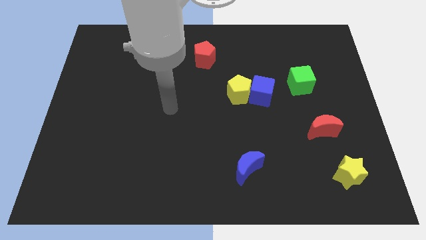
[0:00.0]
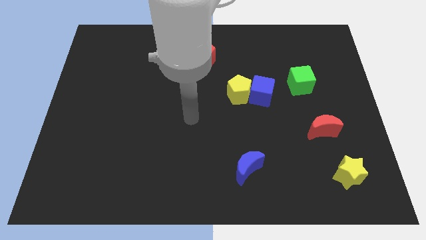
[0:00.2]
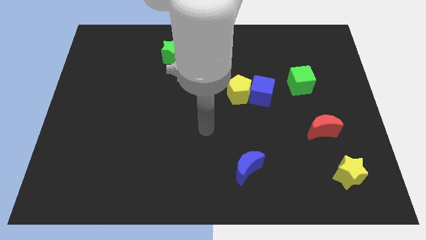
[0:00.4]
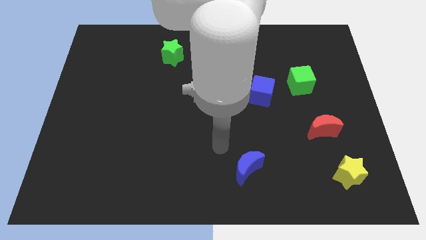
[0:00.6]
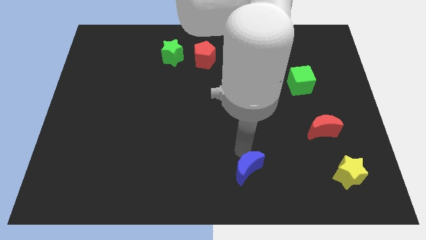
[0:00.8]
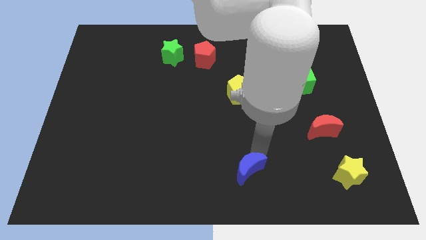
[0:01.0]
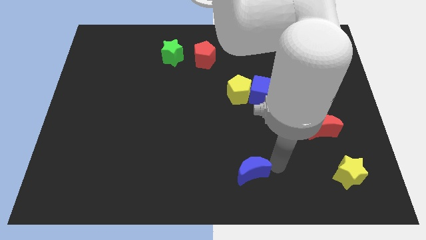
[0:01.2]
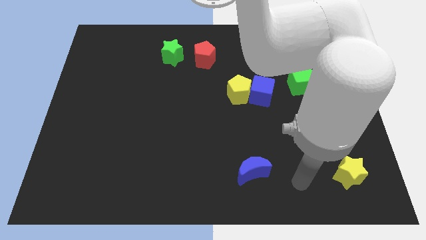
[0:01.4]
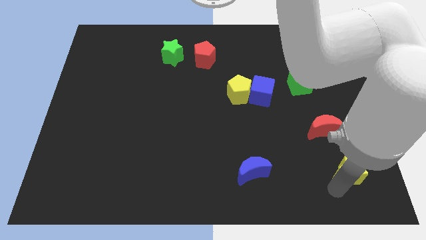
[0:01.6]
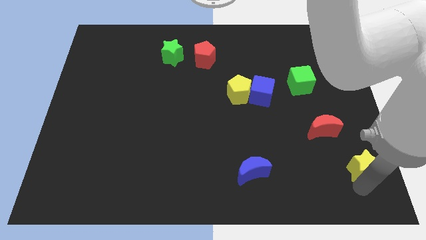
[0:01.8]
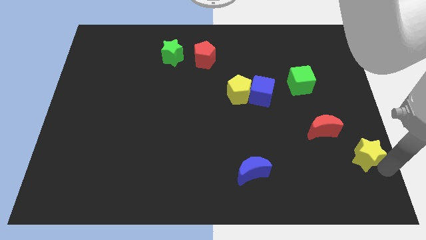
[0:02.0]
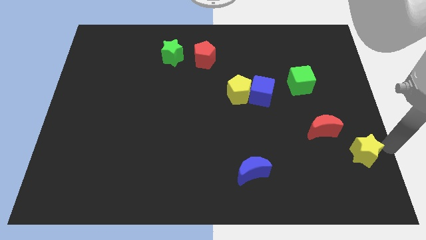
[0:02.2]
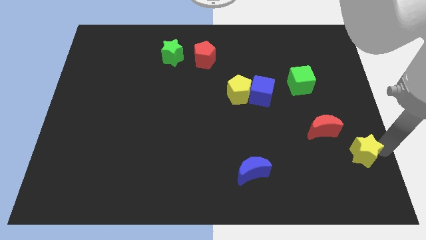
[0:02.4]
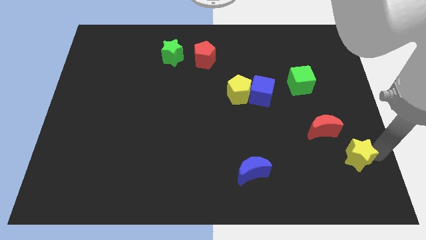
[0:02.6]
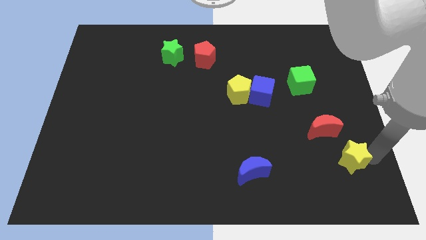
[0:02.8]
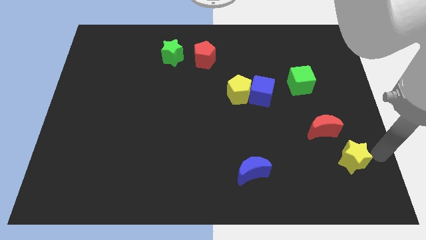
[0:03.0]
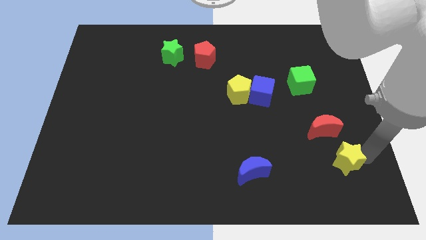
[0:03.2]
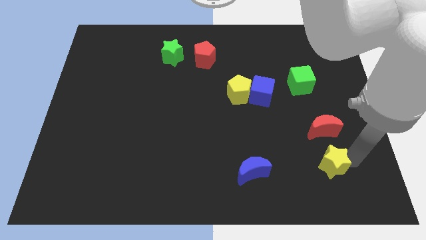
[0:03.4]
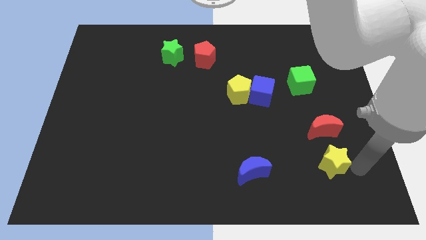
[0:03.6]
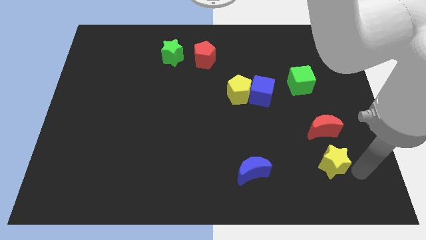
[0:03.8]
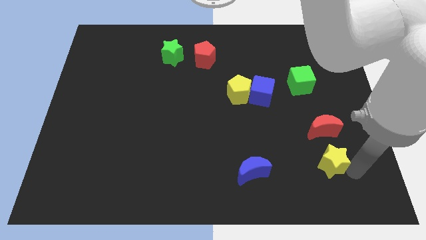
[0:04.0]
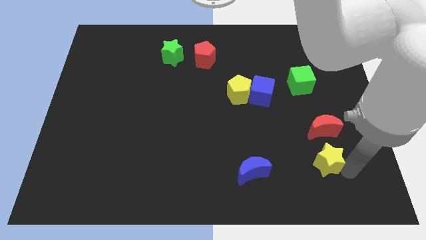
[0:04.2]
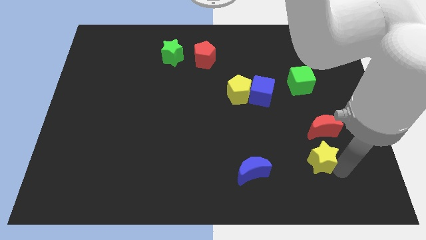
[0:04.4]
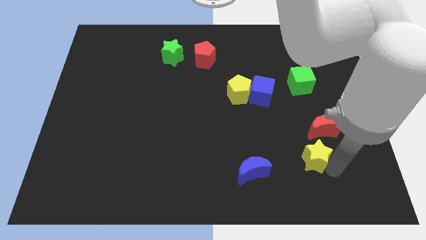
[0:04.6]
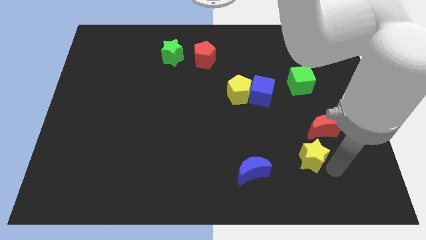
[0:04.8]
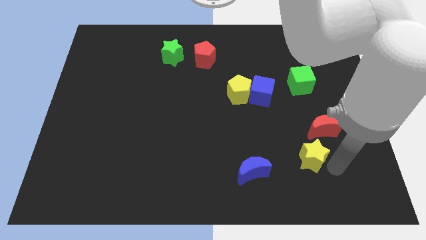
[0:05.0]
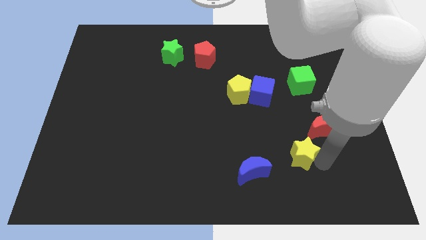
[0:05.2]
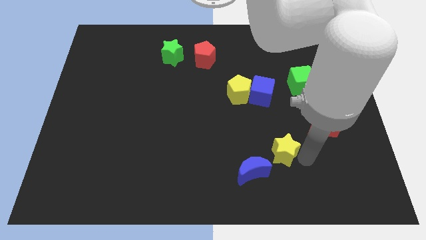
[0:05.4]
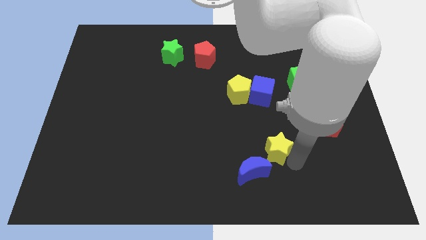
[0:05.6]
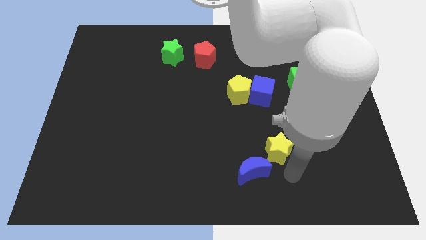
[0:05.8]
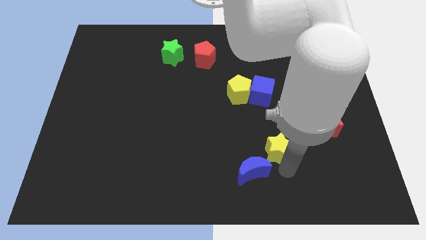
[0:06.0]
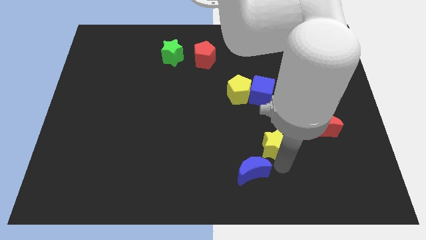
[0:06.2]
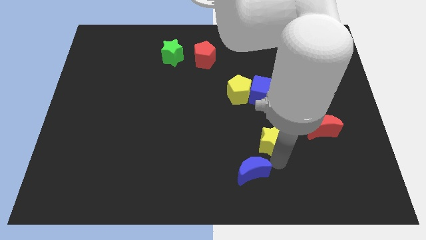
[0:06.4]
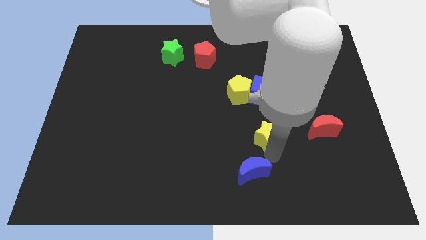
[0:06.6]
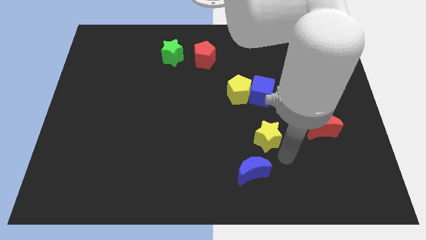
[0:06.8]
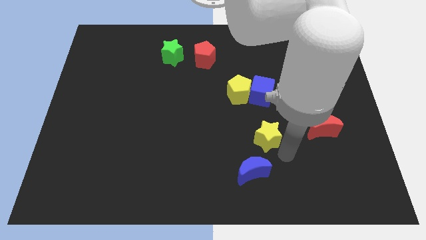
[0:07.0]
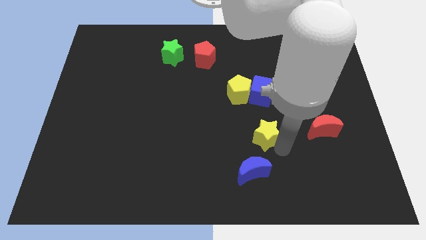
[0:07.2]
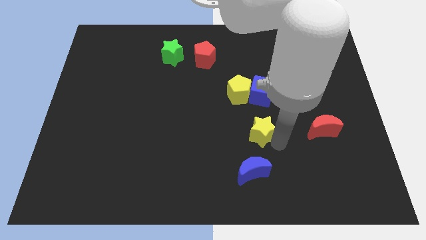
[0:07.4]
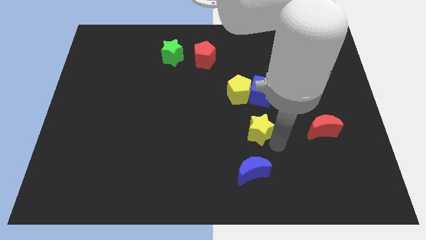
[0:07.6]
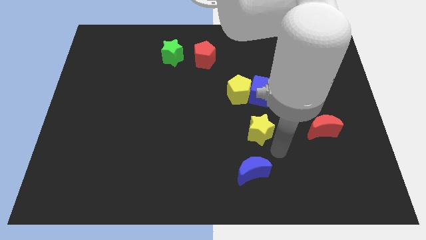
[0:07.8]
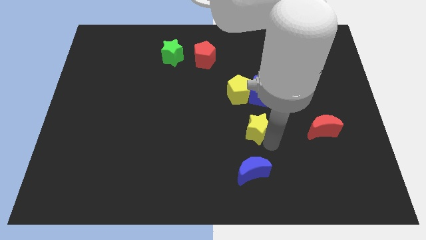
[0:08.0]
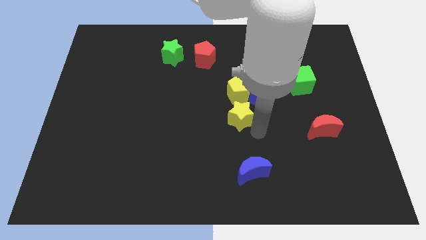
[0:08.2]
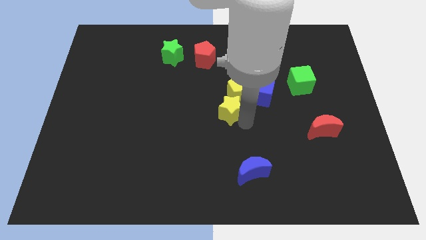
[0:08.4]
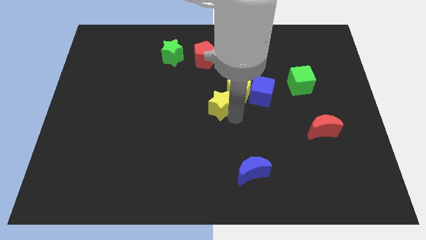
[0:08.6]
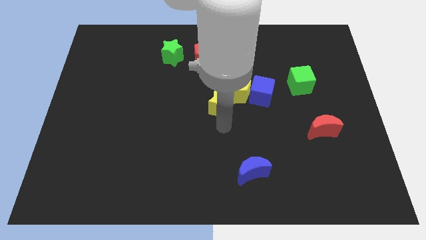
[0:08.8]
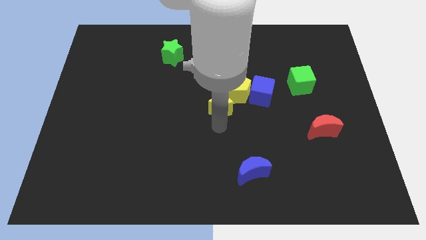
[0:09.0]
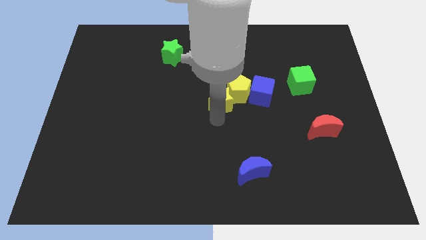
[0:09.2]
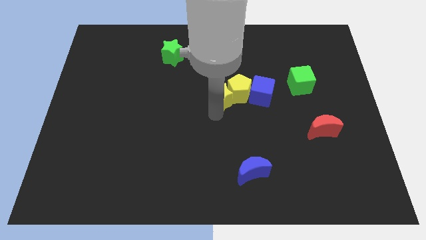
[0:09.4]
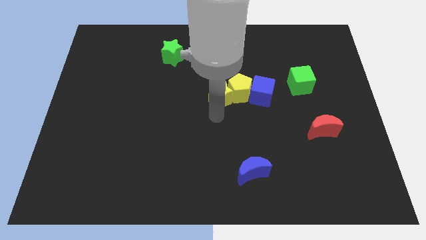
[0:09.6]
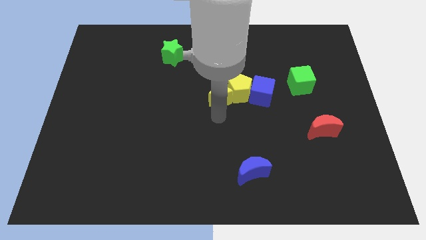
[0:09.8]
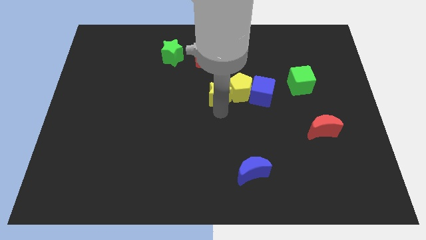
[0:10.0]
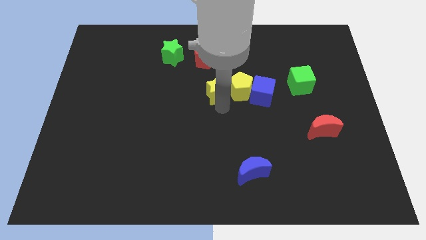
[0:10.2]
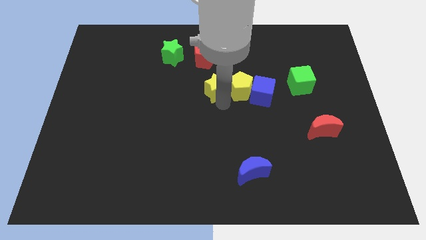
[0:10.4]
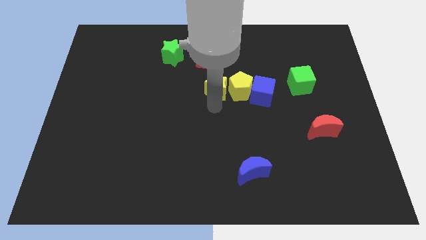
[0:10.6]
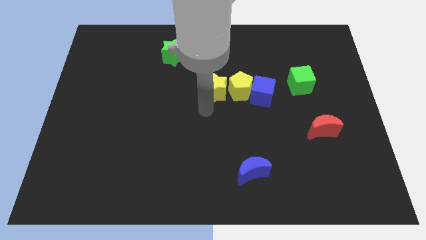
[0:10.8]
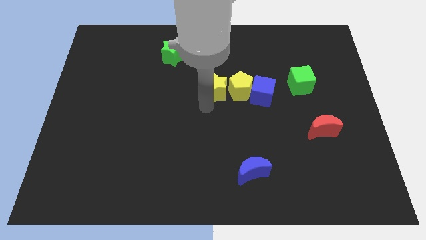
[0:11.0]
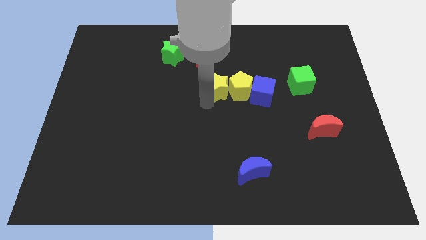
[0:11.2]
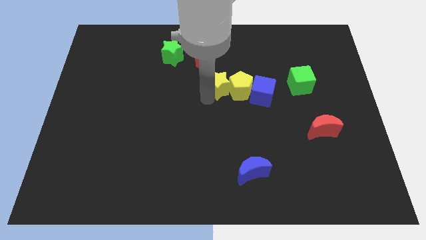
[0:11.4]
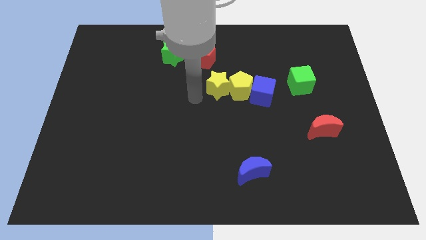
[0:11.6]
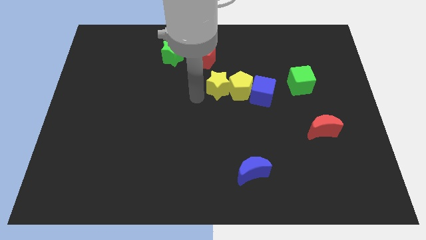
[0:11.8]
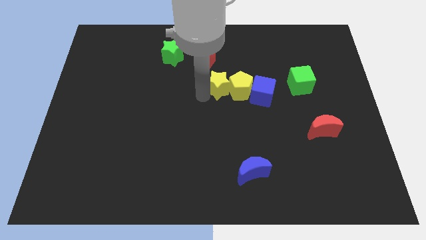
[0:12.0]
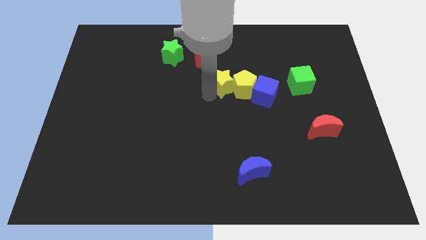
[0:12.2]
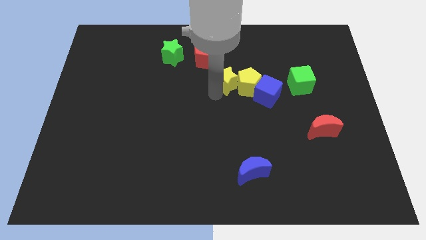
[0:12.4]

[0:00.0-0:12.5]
put the yellow star to the top left side of the blue cube
